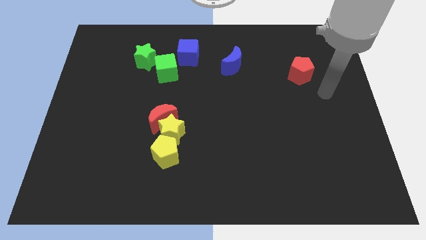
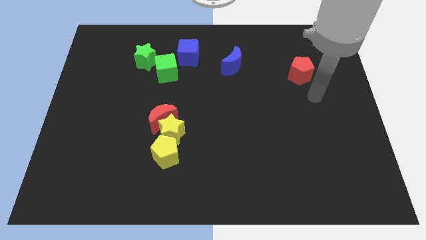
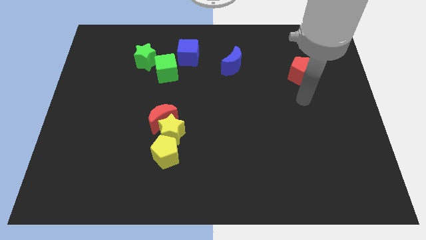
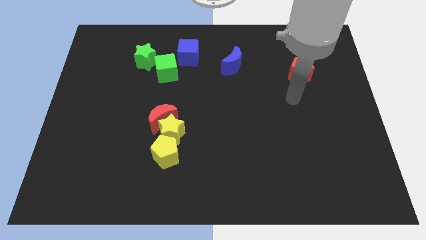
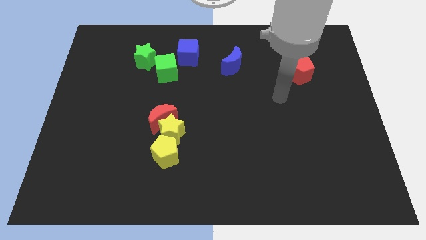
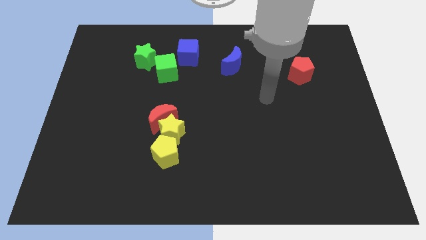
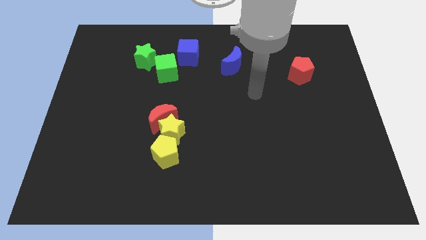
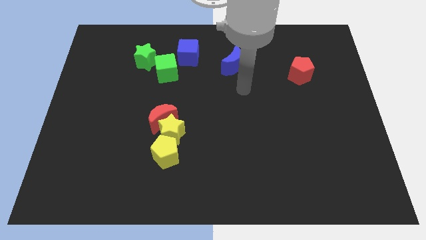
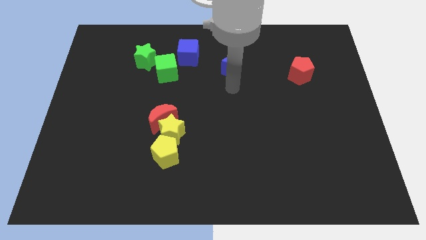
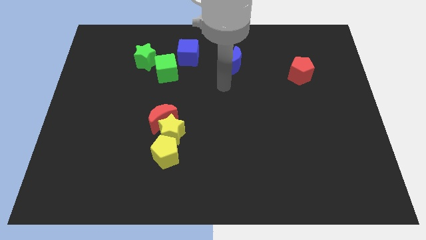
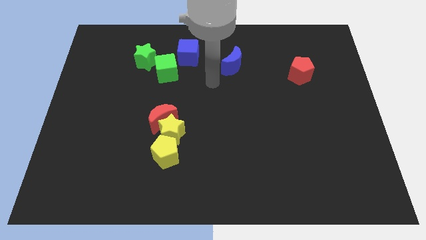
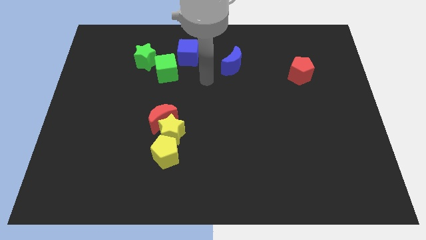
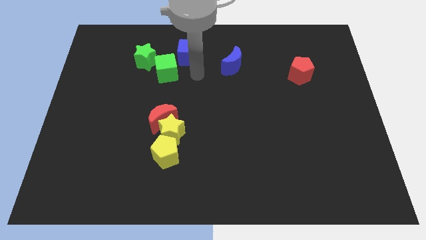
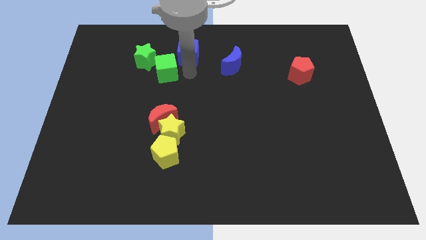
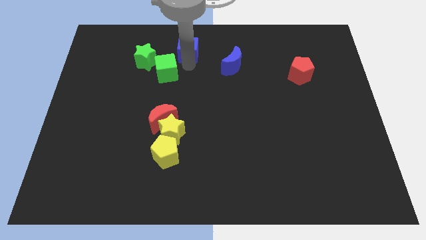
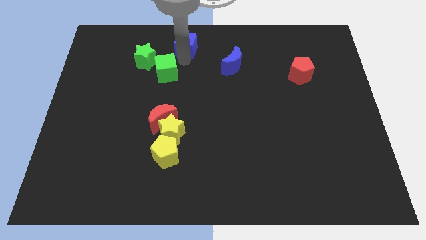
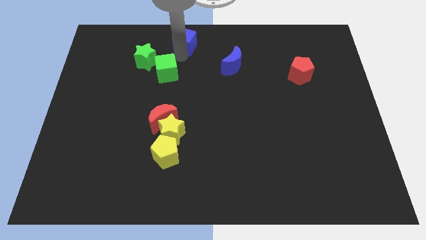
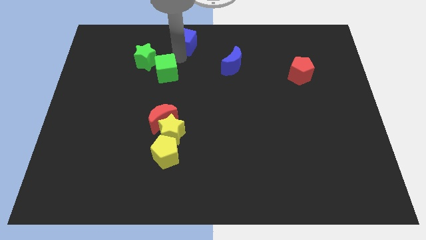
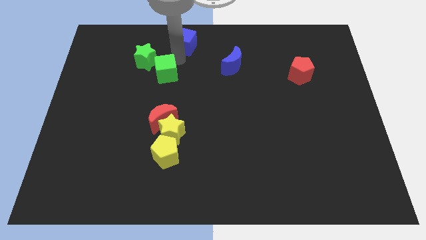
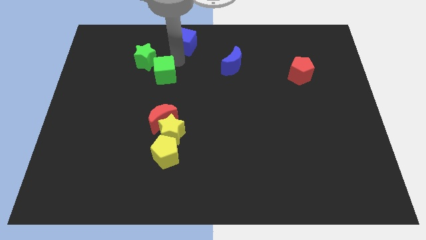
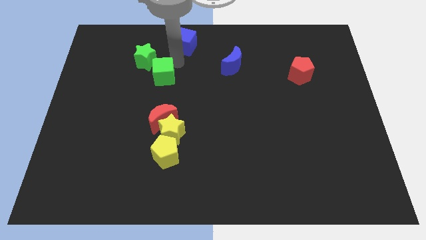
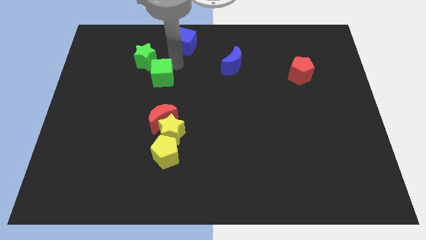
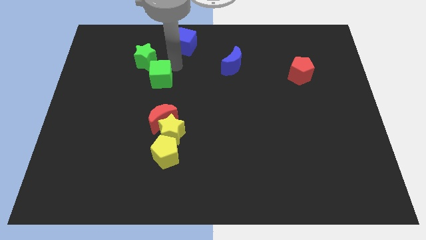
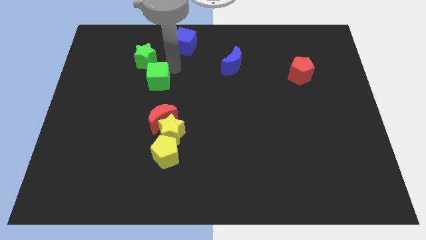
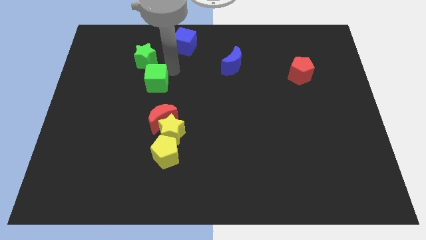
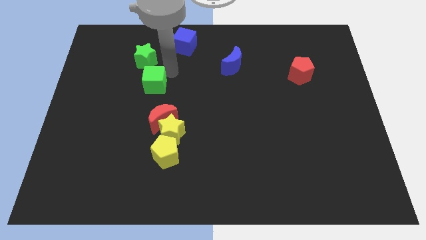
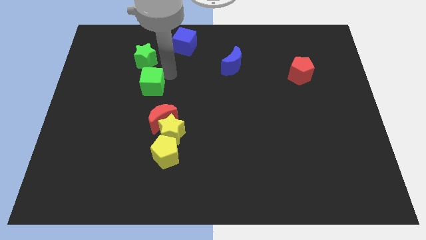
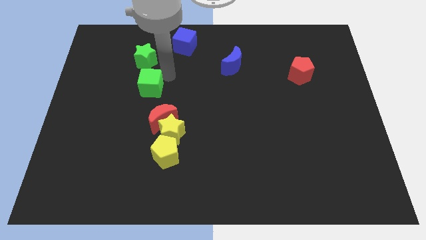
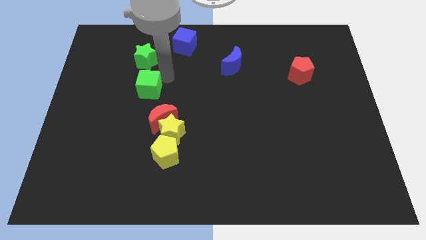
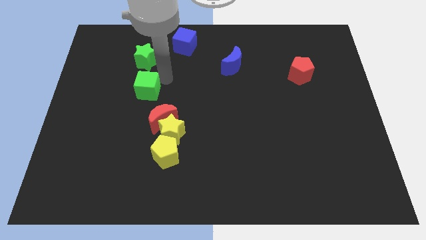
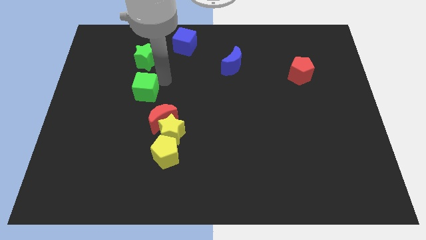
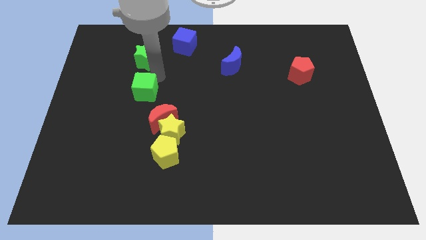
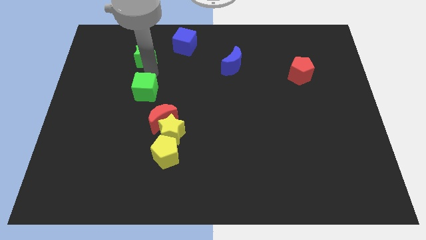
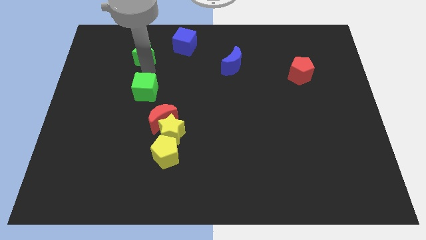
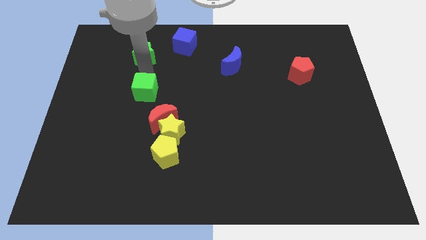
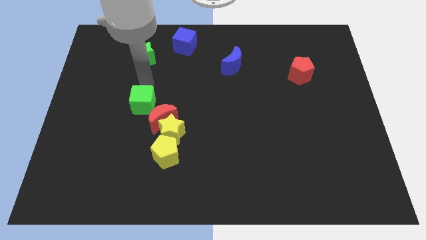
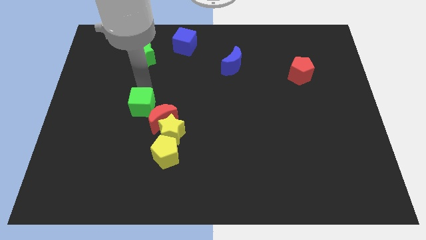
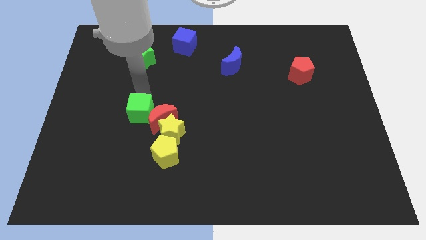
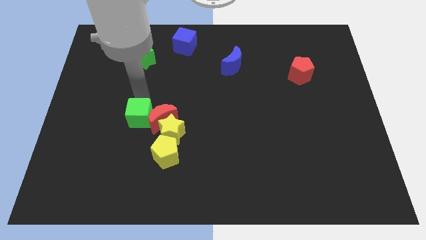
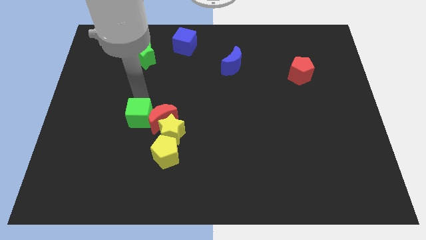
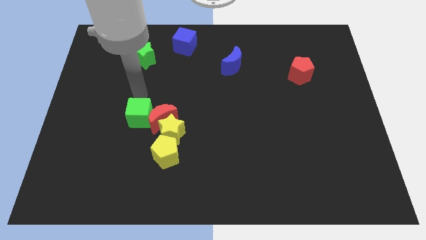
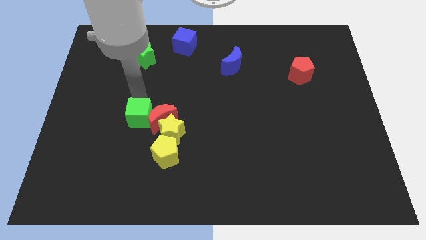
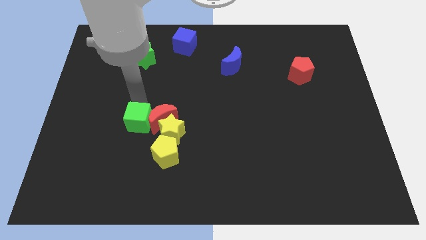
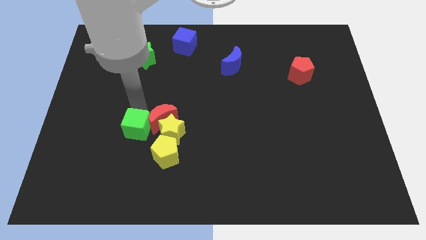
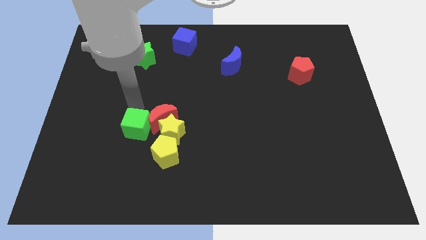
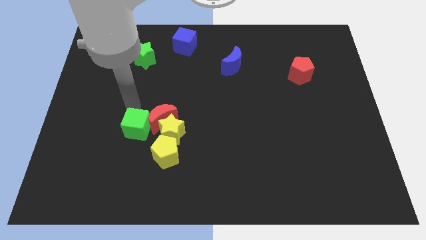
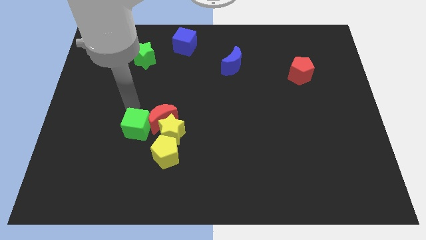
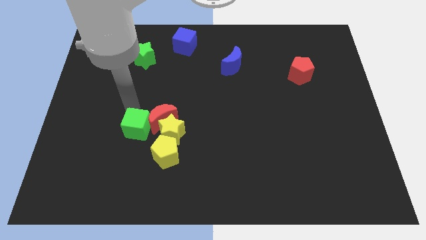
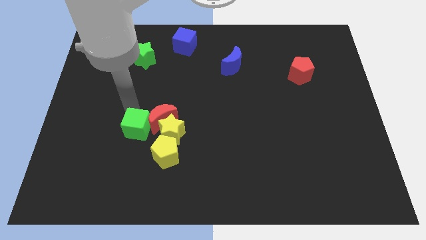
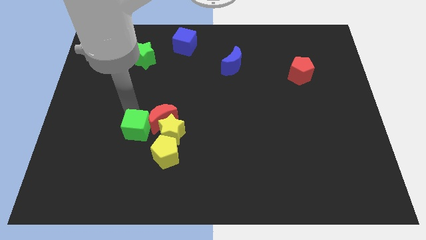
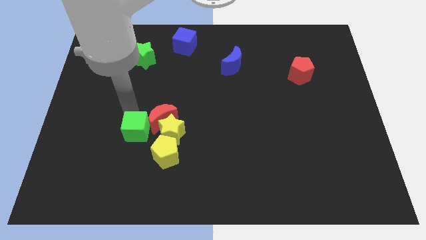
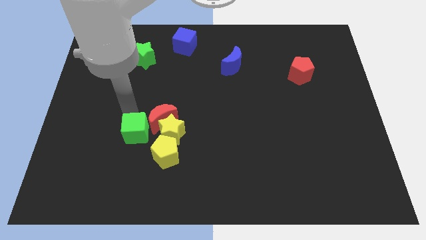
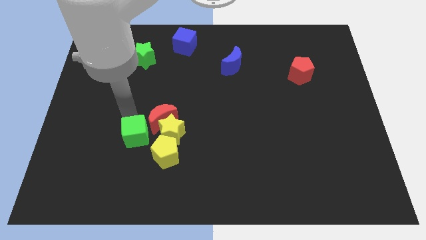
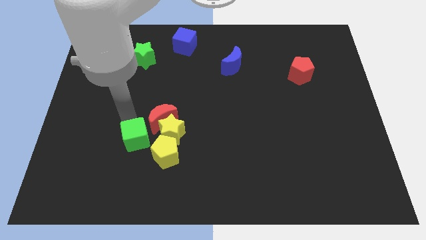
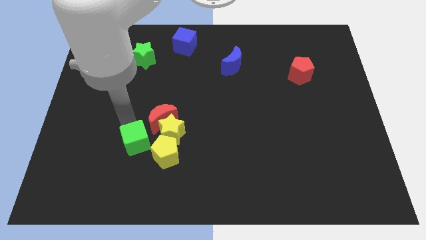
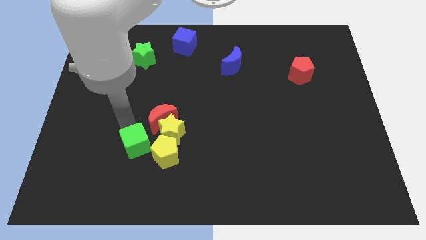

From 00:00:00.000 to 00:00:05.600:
push the green cube below the red moon
